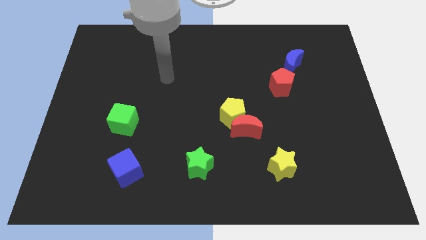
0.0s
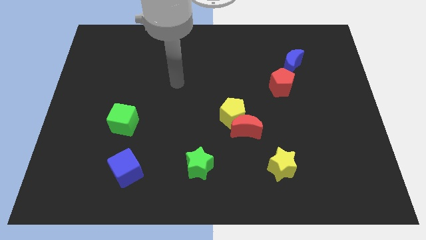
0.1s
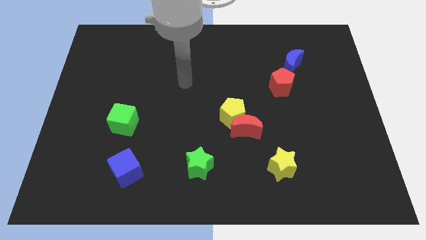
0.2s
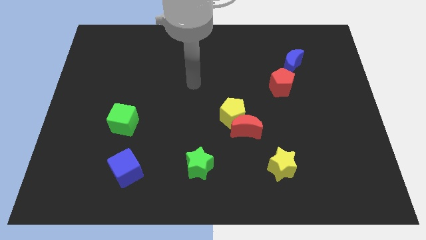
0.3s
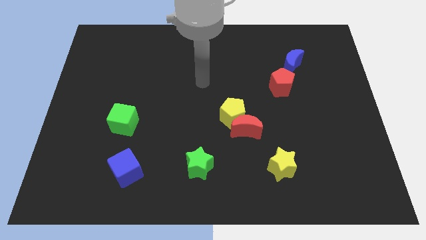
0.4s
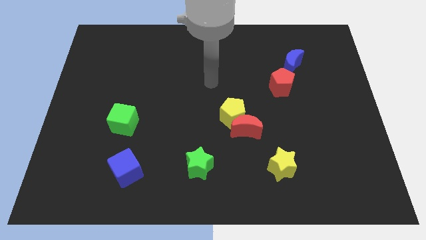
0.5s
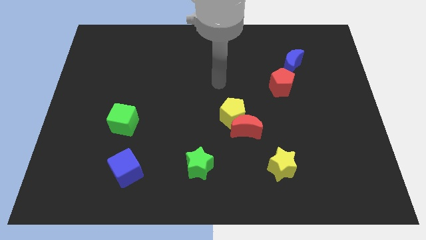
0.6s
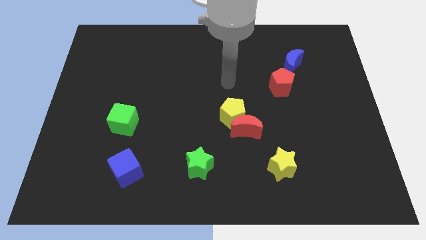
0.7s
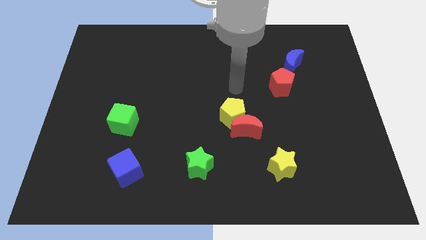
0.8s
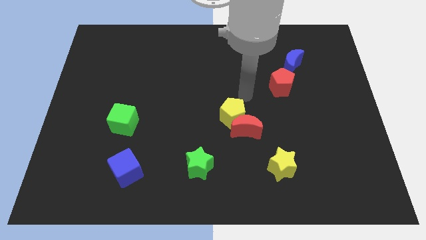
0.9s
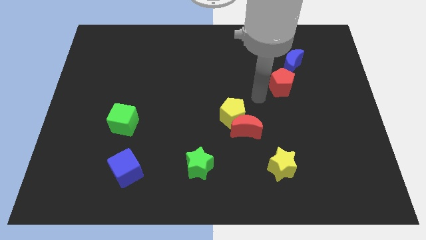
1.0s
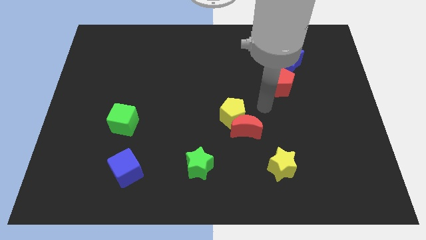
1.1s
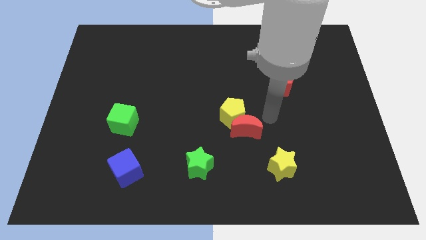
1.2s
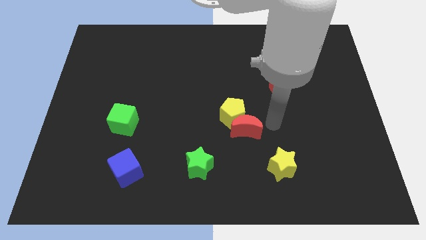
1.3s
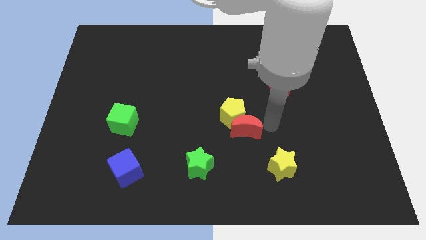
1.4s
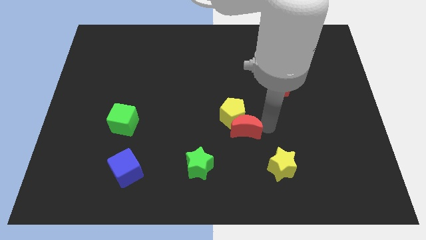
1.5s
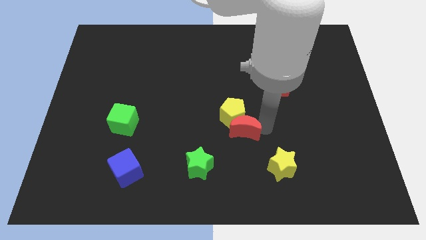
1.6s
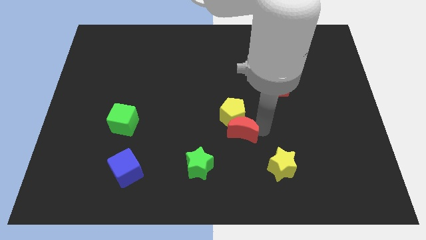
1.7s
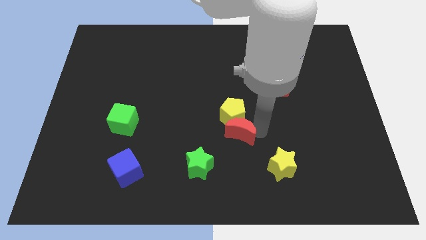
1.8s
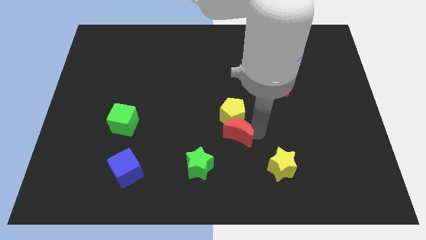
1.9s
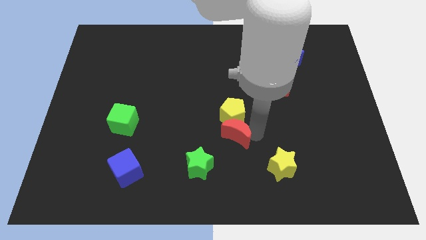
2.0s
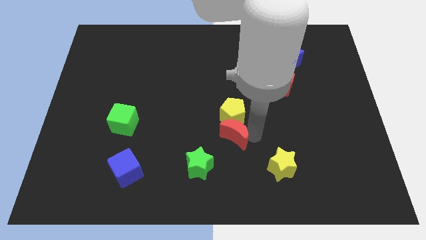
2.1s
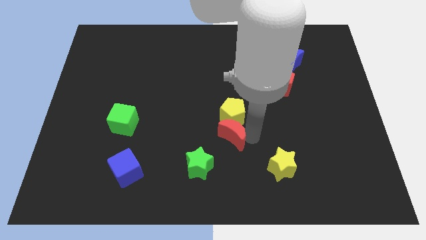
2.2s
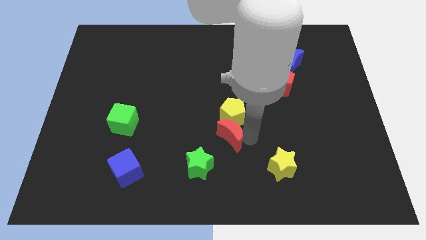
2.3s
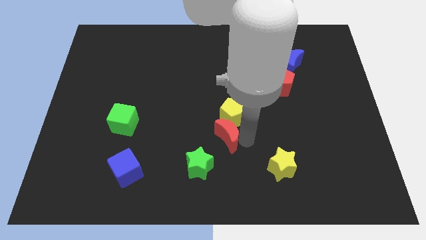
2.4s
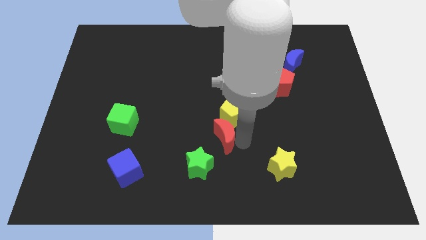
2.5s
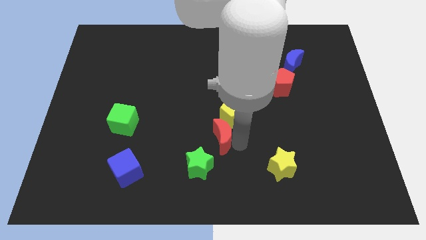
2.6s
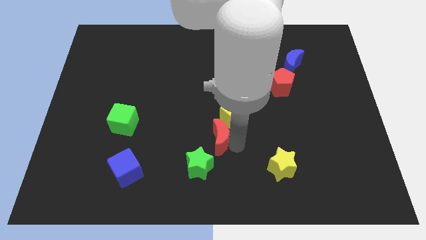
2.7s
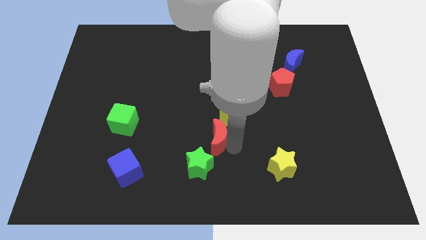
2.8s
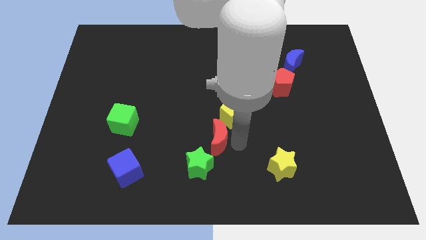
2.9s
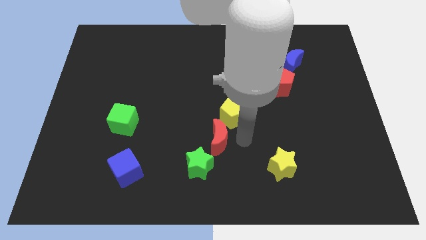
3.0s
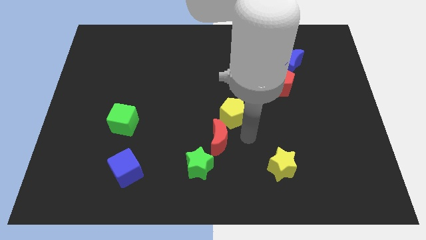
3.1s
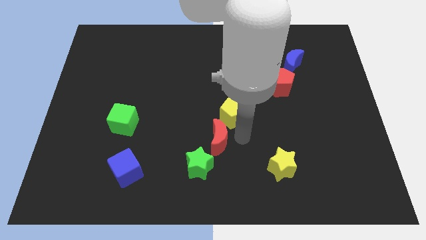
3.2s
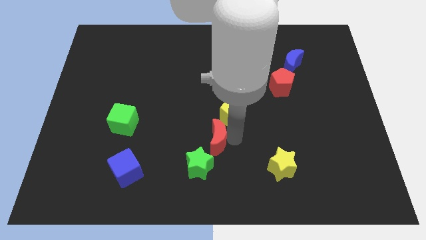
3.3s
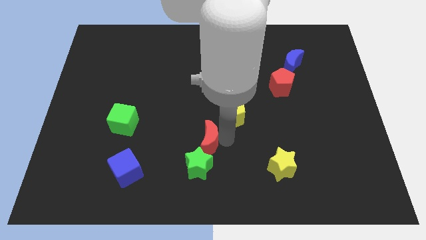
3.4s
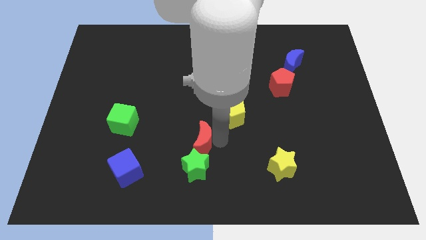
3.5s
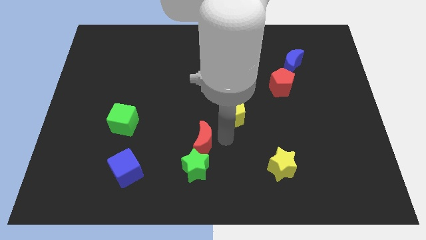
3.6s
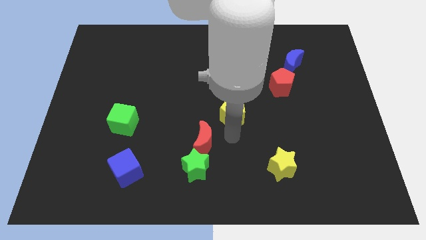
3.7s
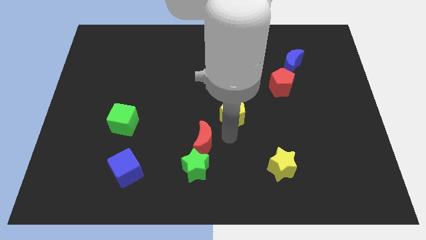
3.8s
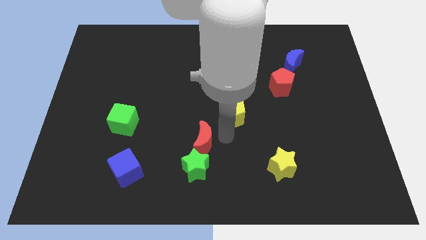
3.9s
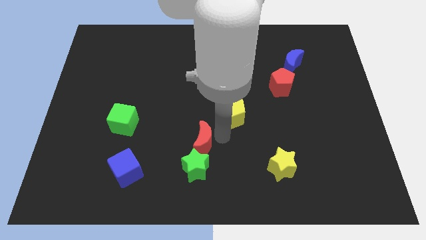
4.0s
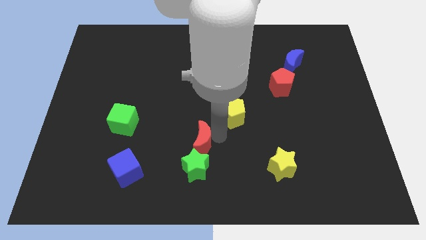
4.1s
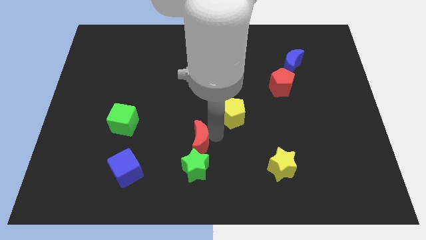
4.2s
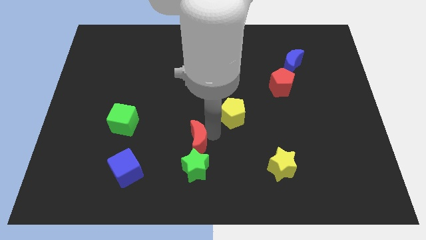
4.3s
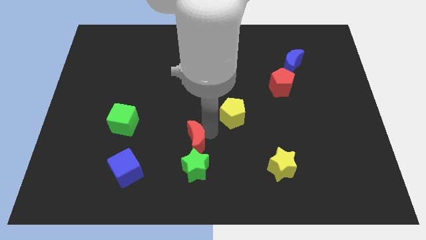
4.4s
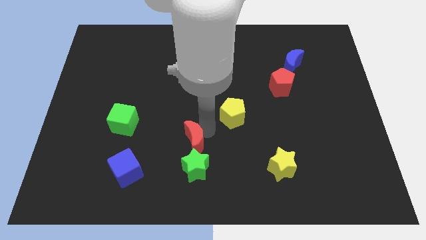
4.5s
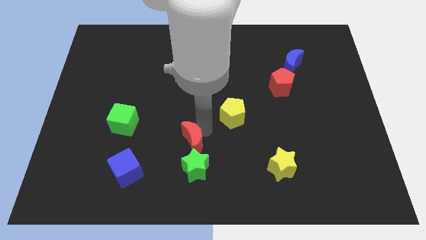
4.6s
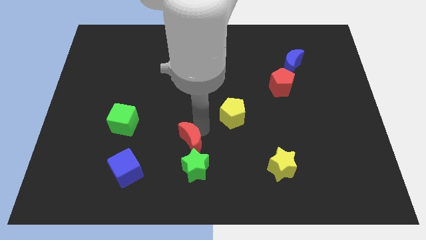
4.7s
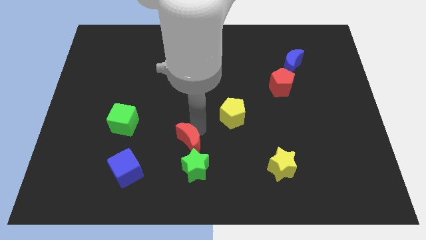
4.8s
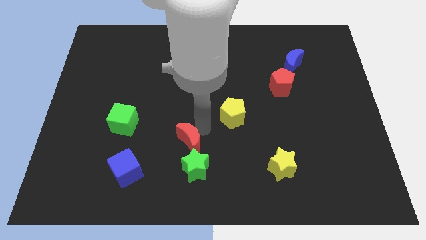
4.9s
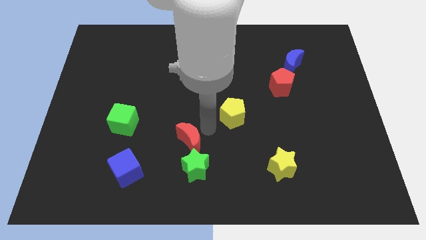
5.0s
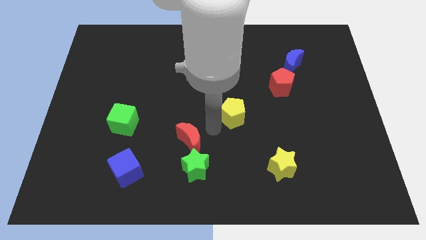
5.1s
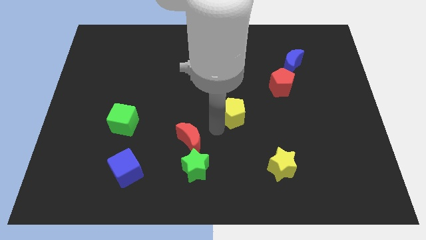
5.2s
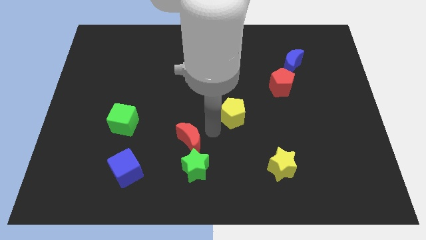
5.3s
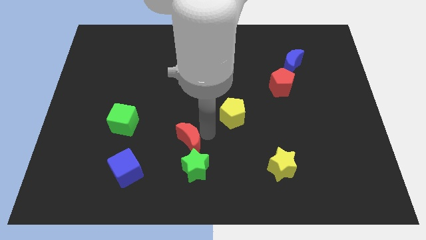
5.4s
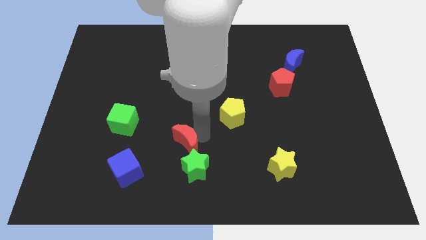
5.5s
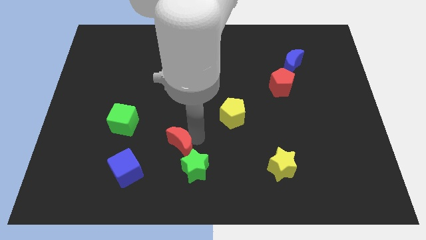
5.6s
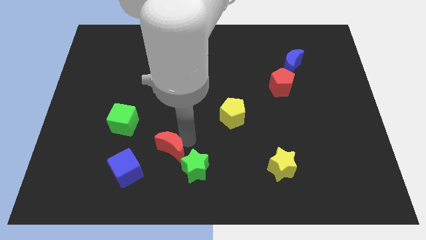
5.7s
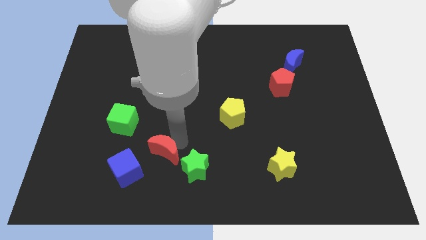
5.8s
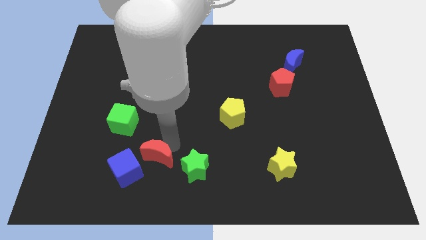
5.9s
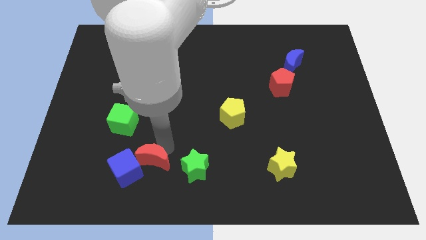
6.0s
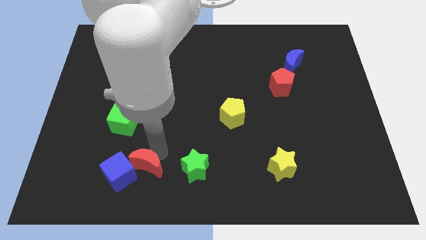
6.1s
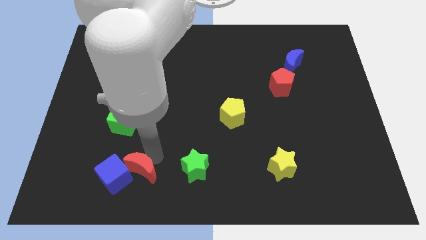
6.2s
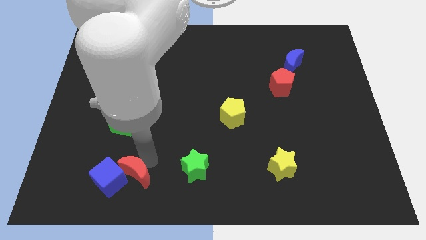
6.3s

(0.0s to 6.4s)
slide the red moon below the green cube
